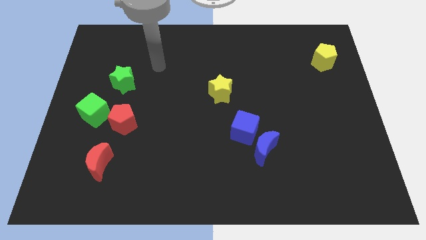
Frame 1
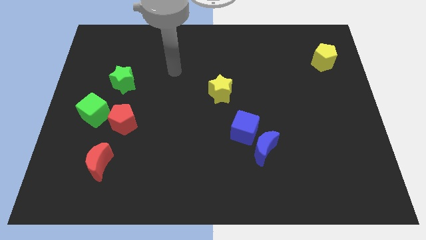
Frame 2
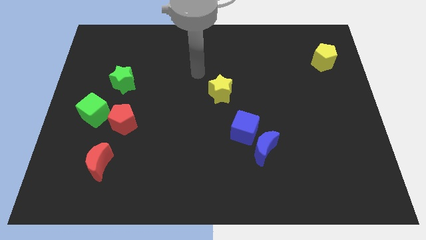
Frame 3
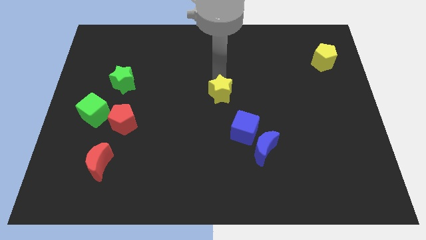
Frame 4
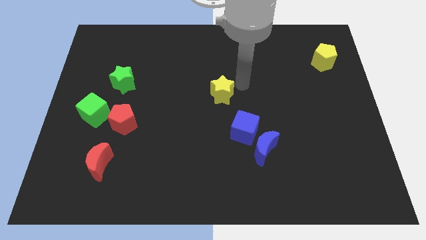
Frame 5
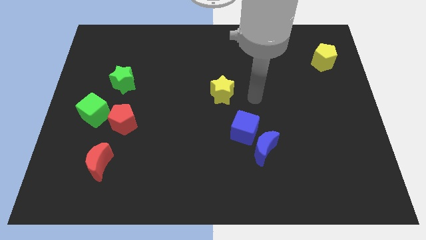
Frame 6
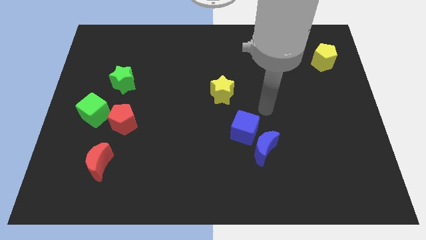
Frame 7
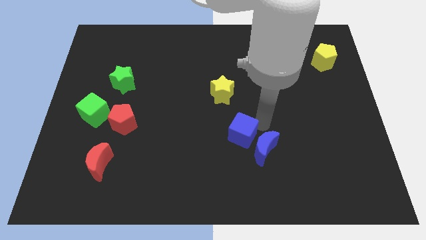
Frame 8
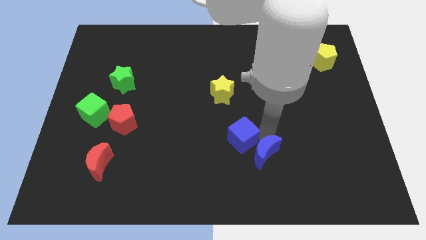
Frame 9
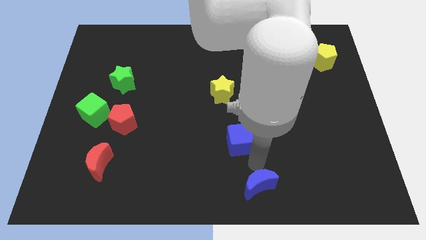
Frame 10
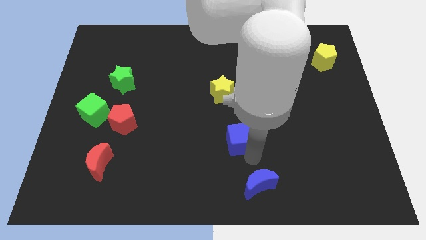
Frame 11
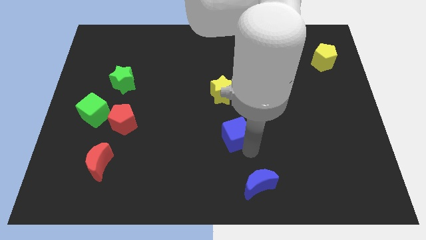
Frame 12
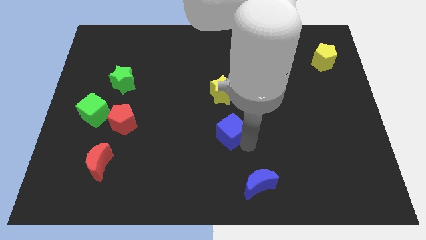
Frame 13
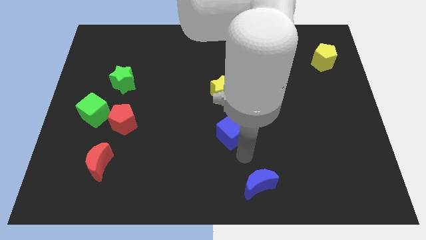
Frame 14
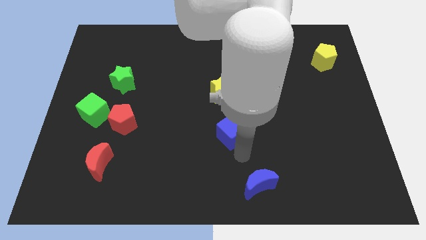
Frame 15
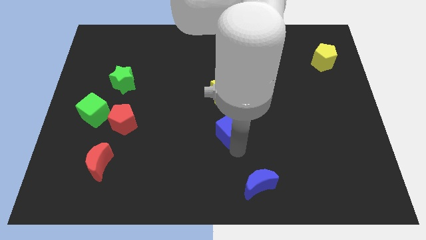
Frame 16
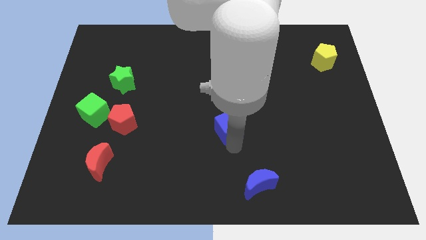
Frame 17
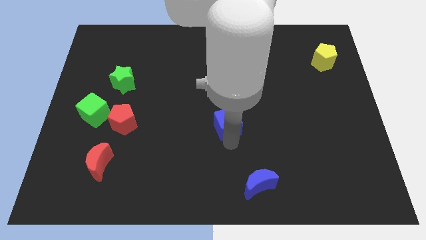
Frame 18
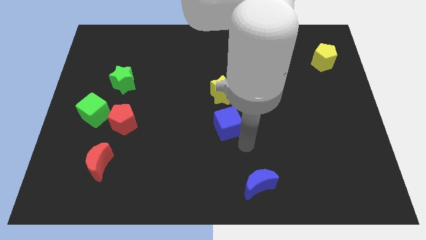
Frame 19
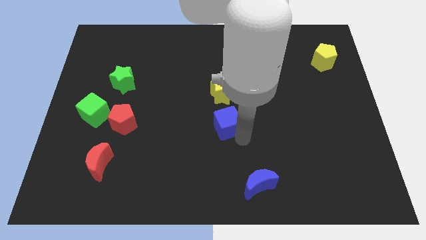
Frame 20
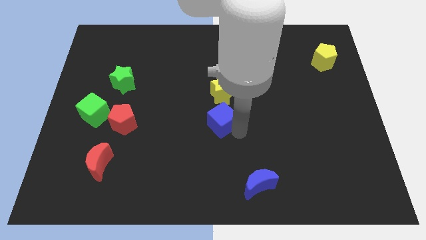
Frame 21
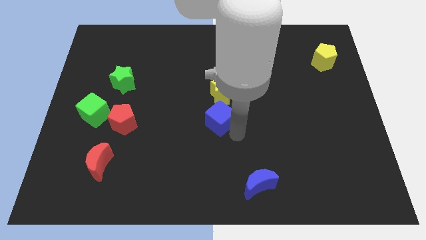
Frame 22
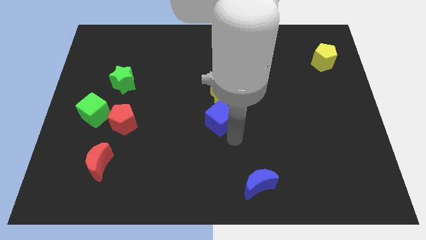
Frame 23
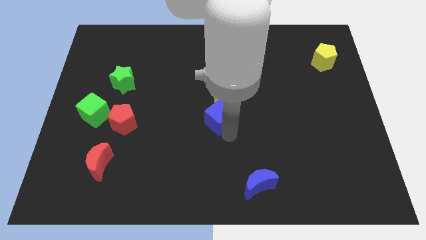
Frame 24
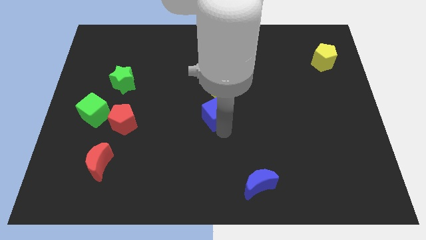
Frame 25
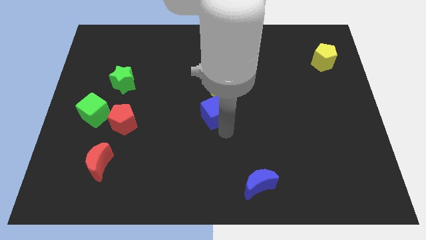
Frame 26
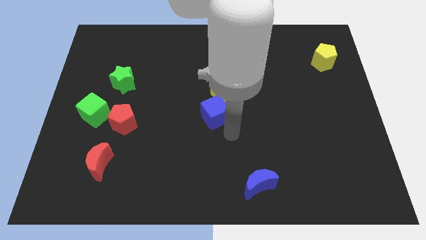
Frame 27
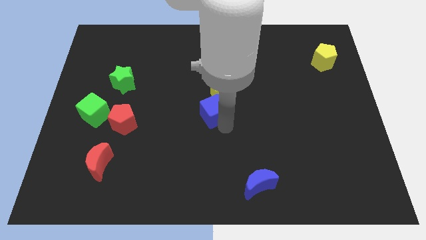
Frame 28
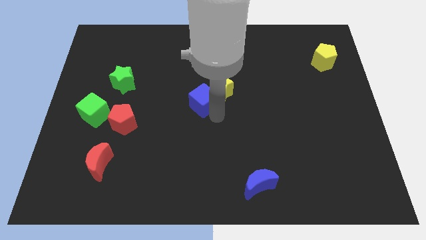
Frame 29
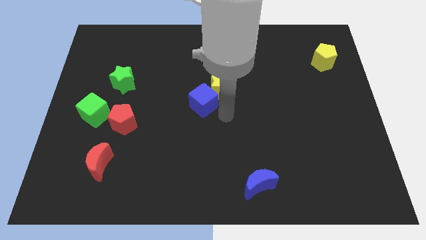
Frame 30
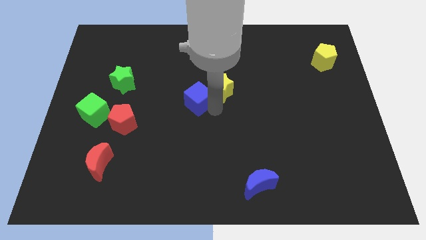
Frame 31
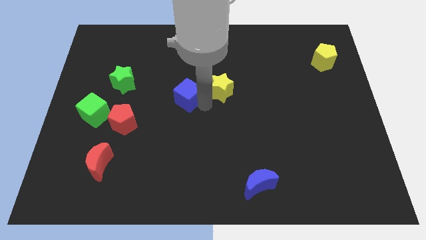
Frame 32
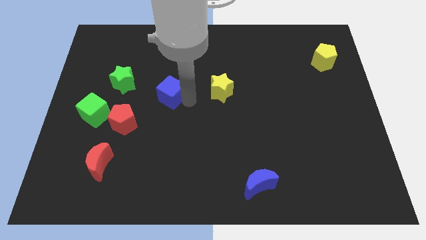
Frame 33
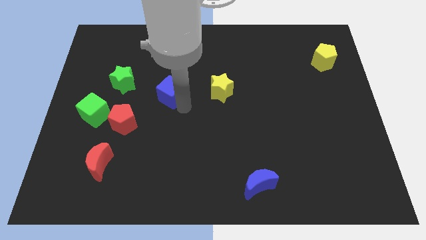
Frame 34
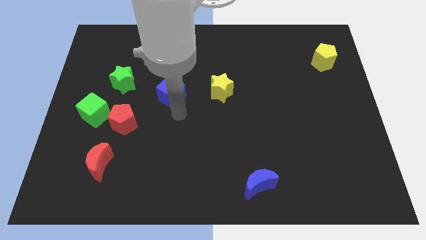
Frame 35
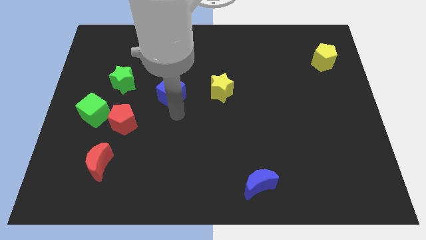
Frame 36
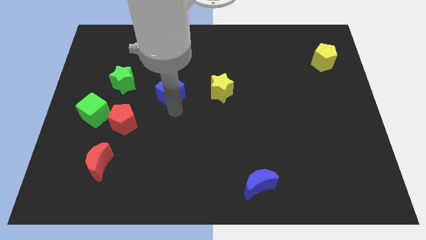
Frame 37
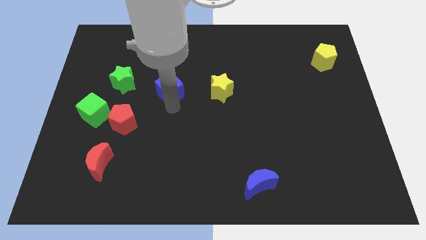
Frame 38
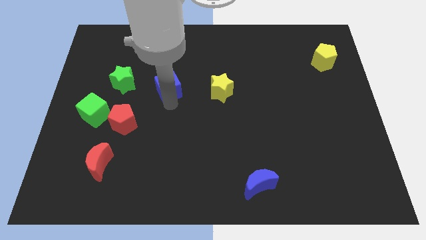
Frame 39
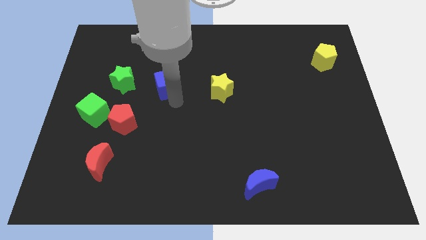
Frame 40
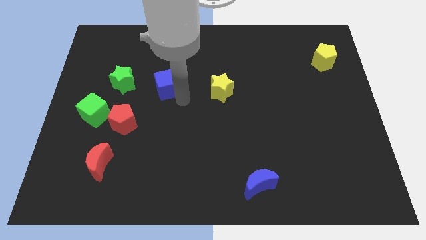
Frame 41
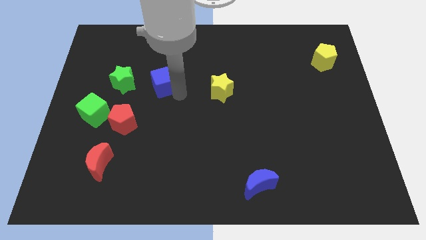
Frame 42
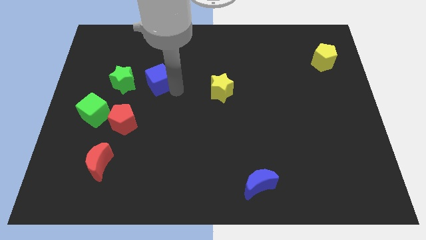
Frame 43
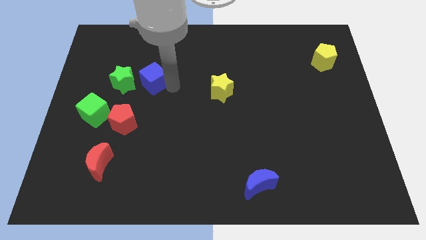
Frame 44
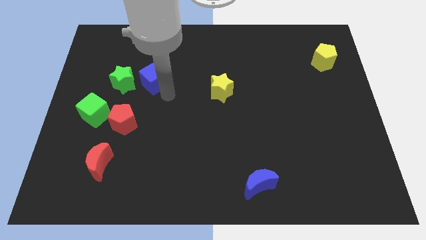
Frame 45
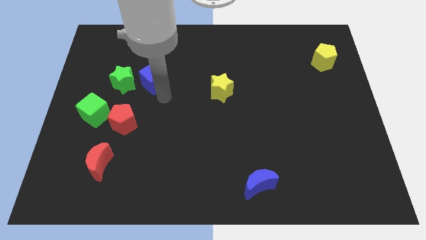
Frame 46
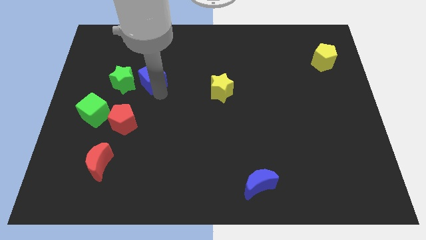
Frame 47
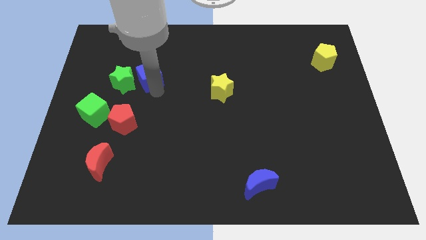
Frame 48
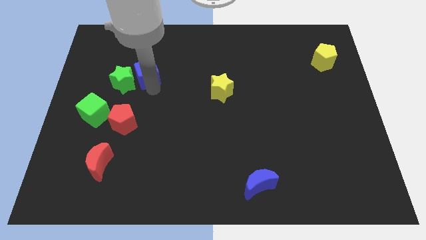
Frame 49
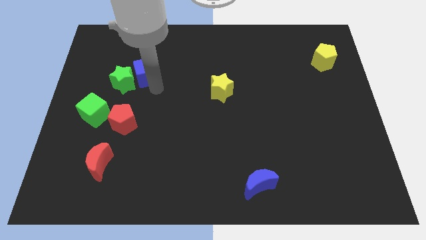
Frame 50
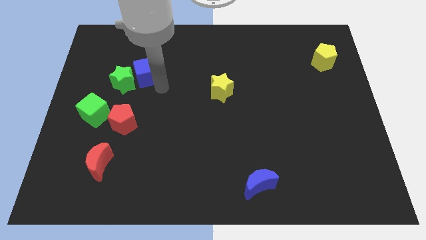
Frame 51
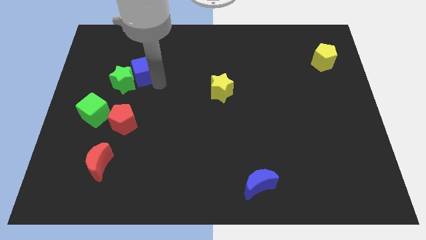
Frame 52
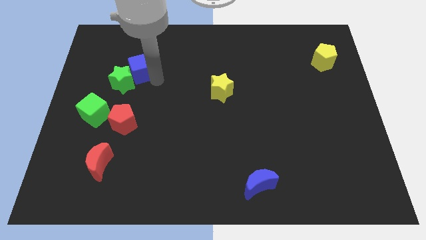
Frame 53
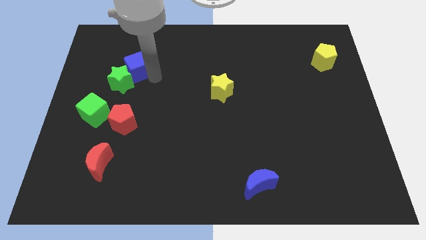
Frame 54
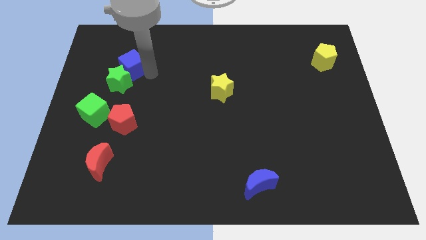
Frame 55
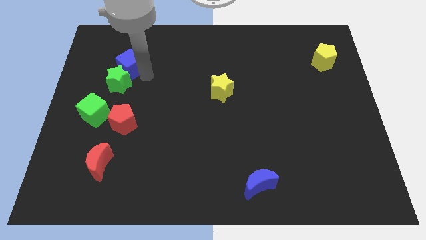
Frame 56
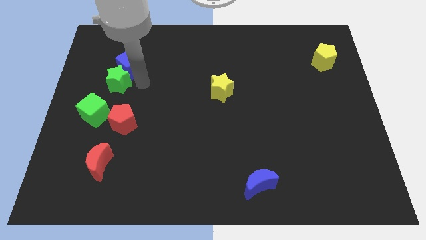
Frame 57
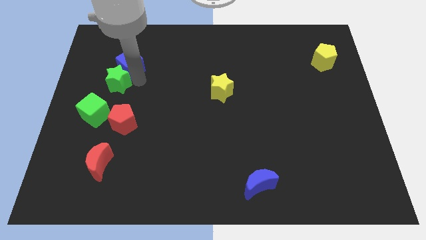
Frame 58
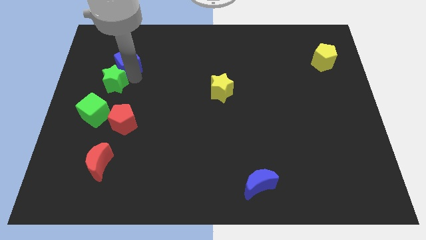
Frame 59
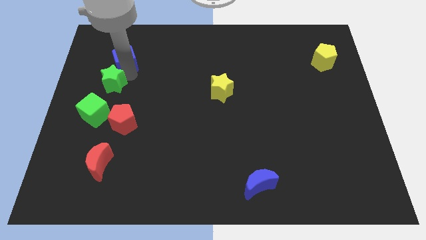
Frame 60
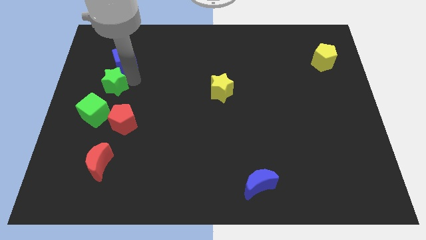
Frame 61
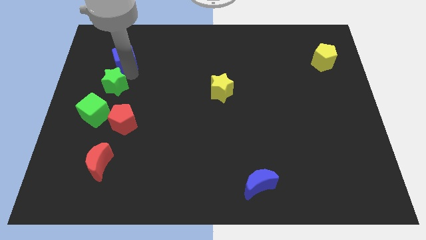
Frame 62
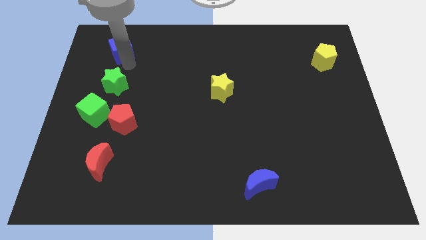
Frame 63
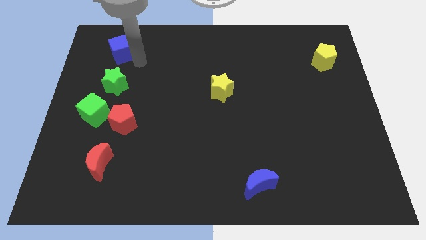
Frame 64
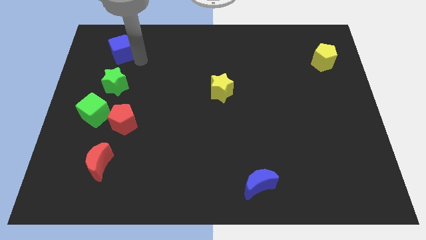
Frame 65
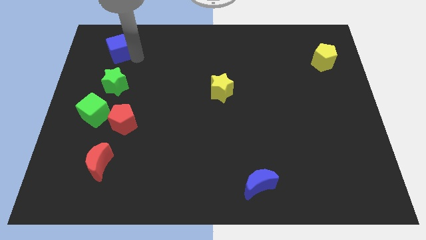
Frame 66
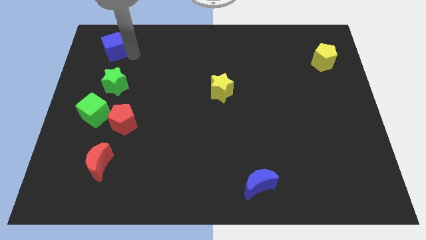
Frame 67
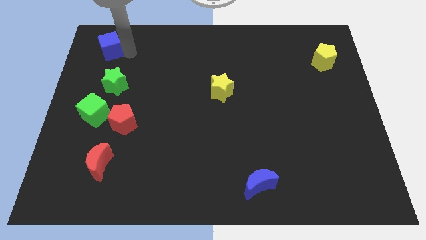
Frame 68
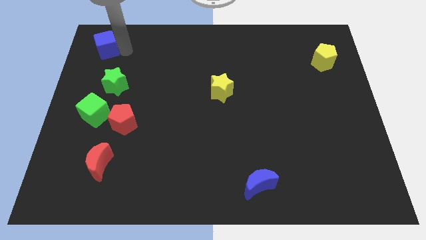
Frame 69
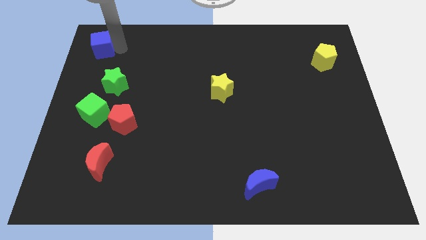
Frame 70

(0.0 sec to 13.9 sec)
push the blue cube to the upper left corner

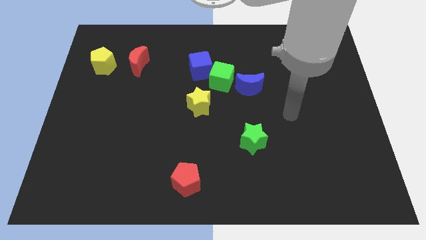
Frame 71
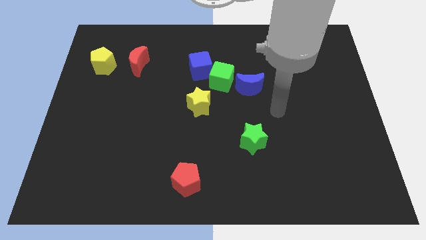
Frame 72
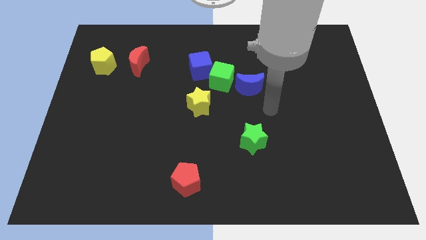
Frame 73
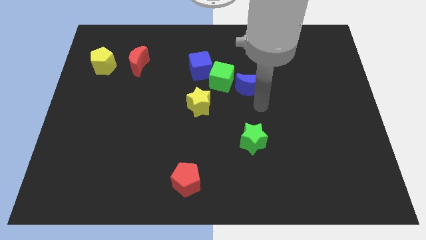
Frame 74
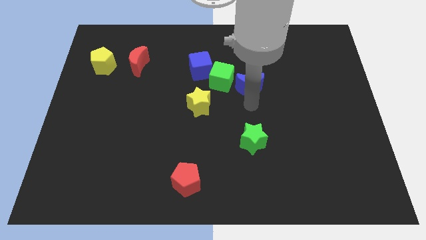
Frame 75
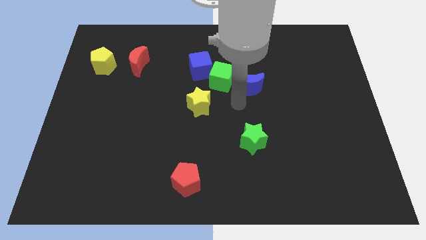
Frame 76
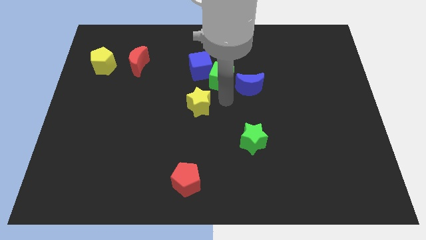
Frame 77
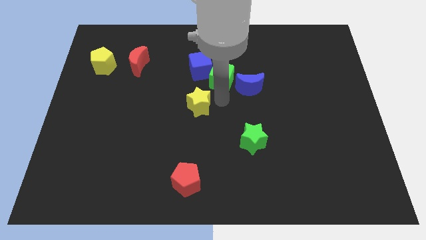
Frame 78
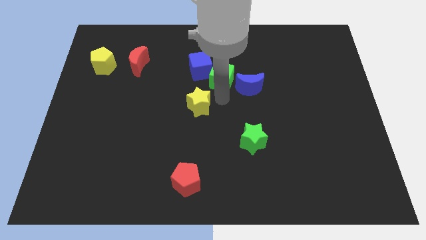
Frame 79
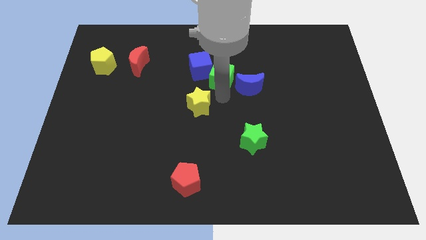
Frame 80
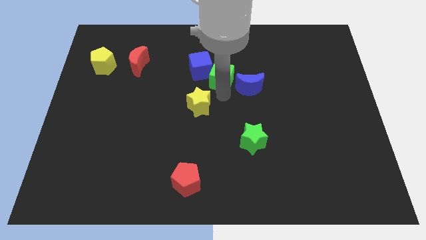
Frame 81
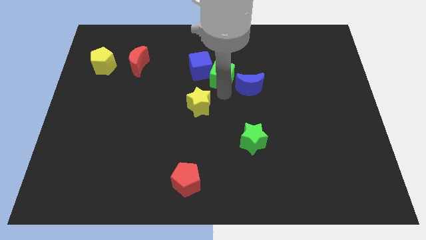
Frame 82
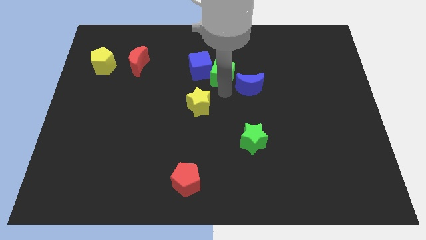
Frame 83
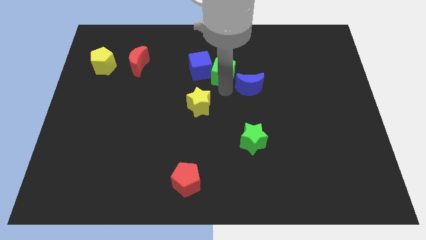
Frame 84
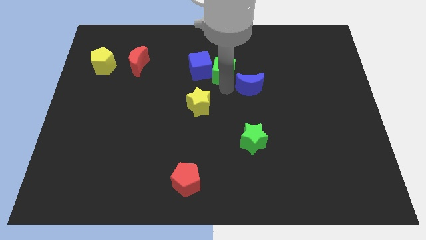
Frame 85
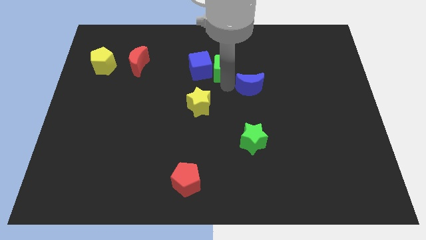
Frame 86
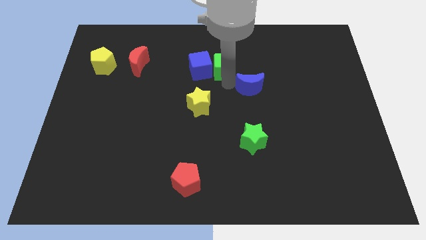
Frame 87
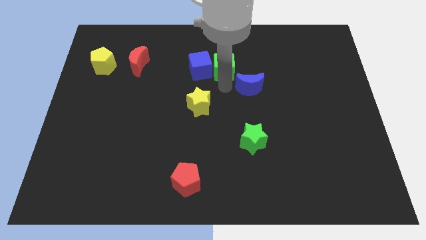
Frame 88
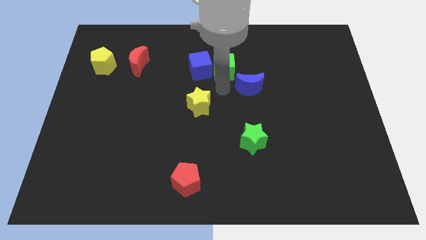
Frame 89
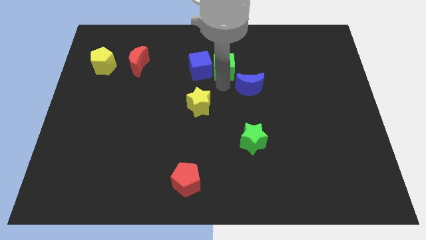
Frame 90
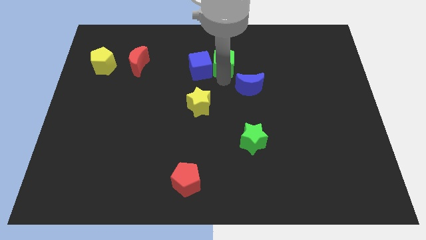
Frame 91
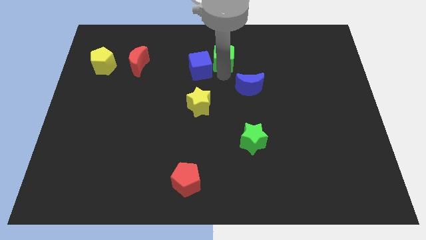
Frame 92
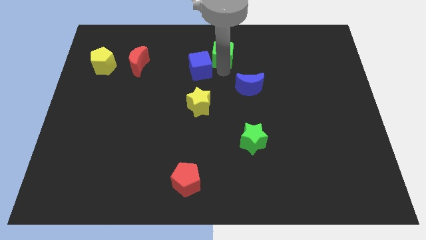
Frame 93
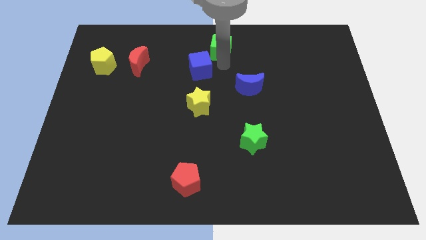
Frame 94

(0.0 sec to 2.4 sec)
slide the green cube to the top
